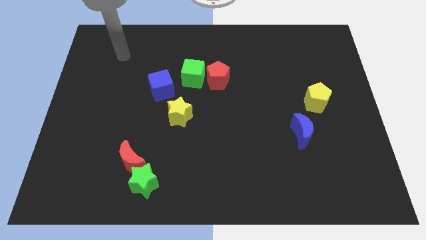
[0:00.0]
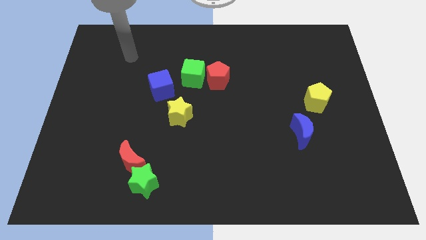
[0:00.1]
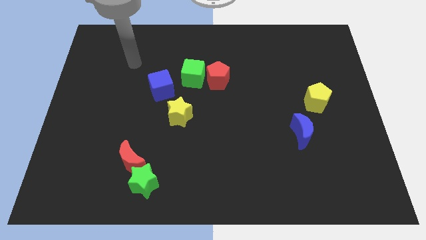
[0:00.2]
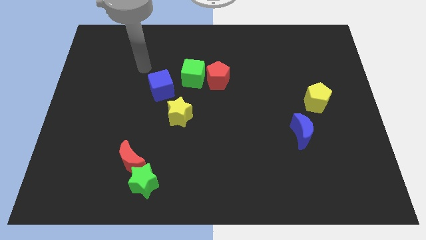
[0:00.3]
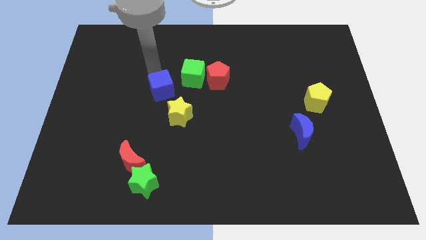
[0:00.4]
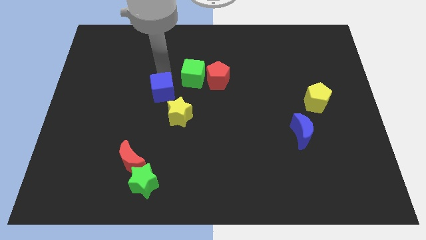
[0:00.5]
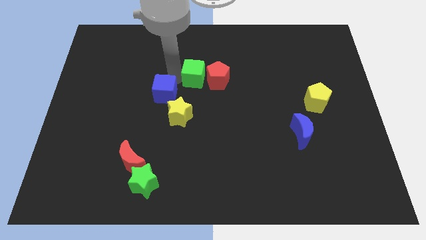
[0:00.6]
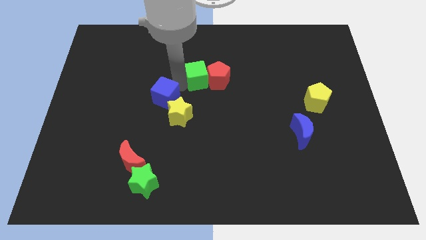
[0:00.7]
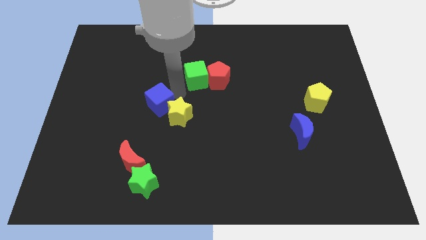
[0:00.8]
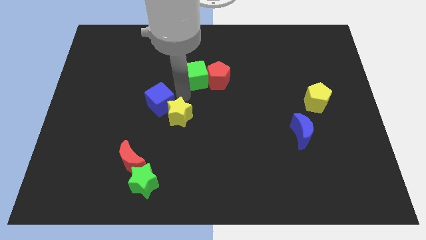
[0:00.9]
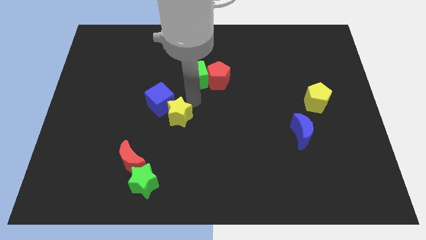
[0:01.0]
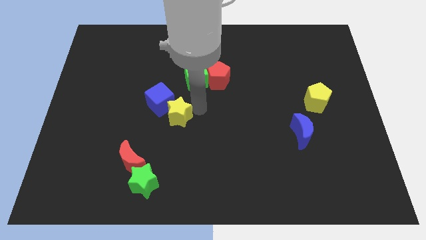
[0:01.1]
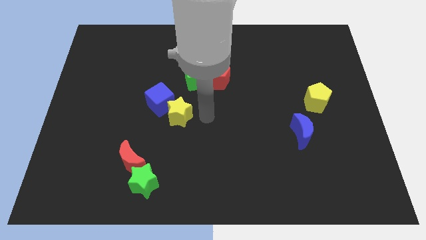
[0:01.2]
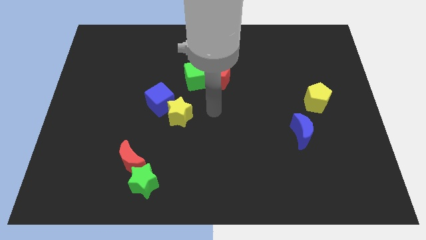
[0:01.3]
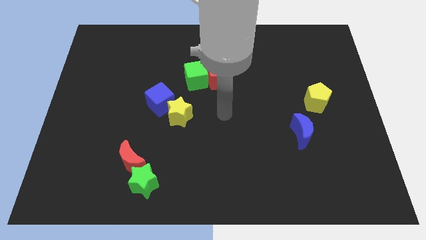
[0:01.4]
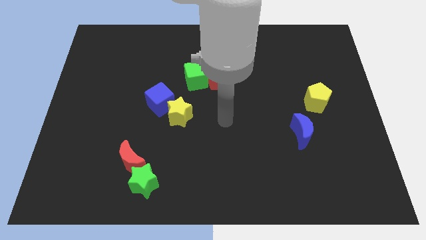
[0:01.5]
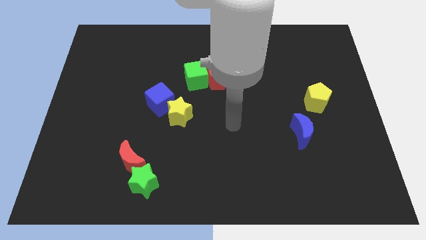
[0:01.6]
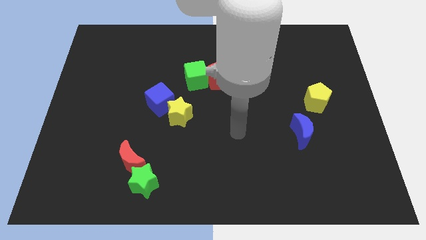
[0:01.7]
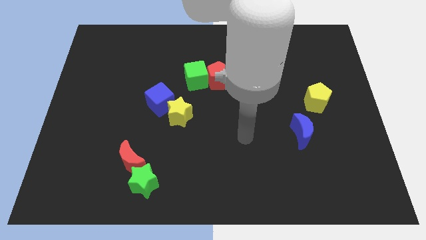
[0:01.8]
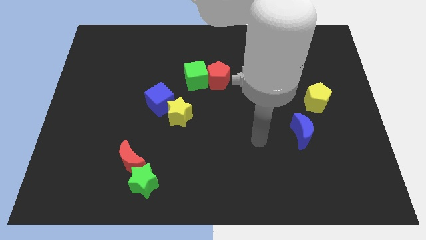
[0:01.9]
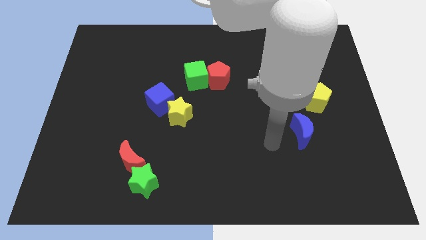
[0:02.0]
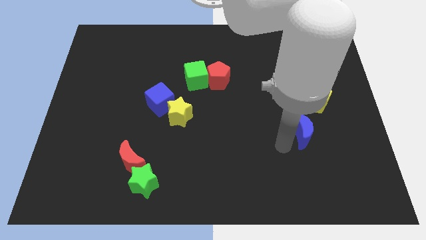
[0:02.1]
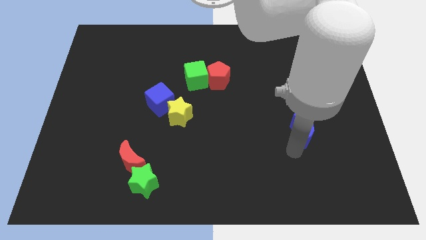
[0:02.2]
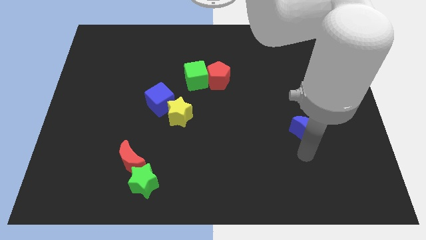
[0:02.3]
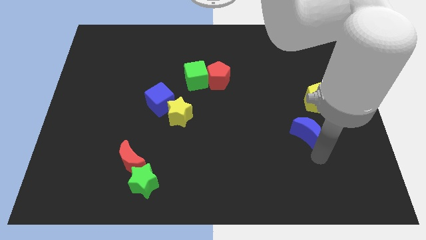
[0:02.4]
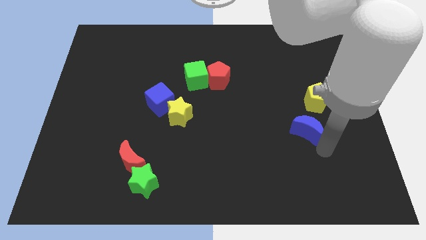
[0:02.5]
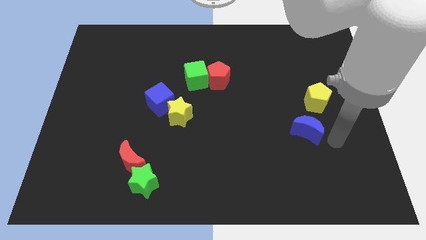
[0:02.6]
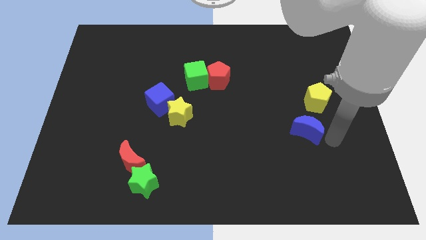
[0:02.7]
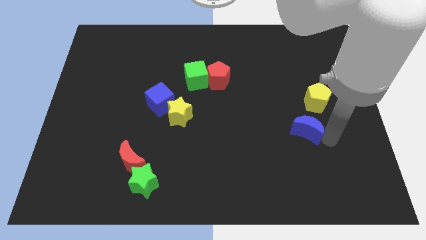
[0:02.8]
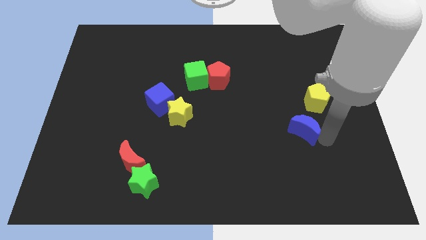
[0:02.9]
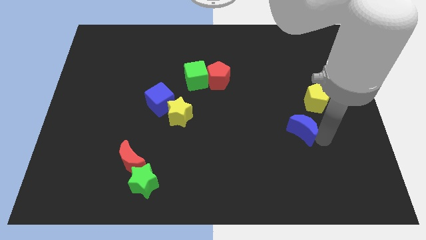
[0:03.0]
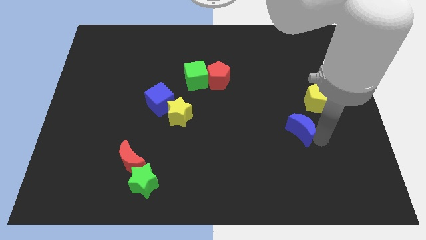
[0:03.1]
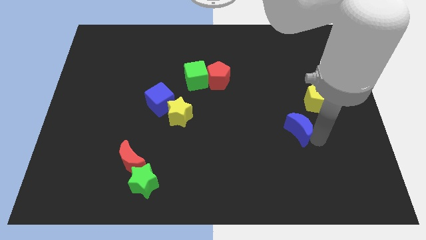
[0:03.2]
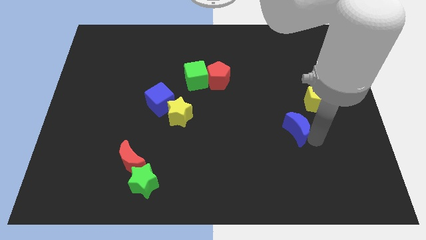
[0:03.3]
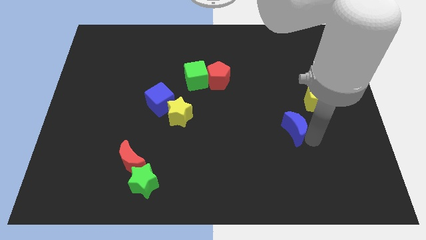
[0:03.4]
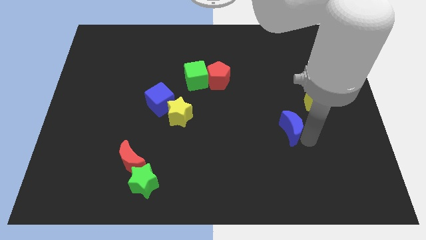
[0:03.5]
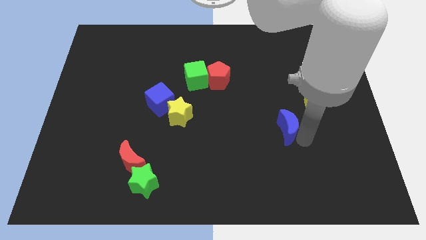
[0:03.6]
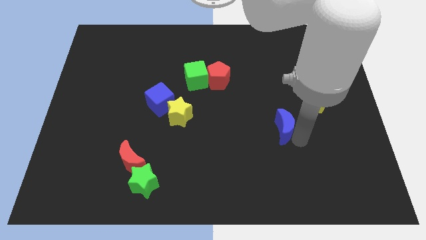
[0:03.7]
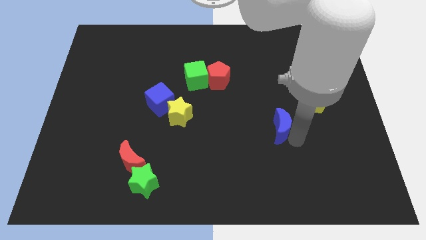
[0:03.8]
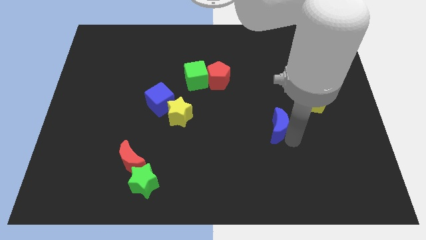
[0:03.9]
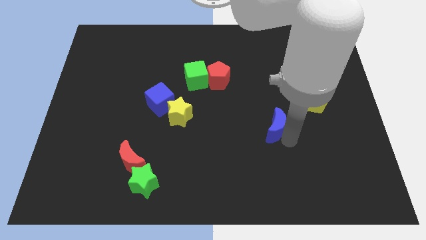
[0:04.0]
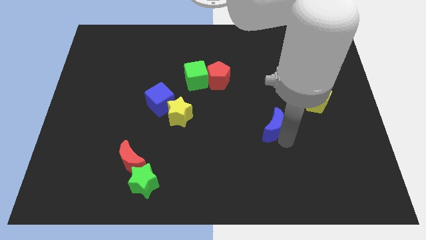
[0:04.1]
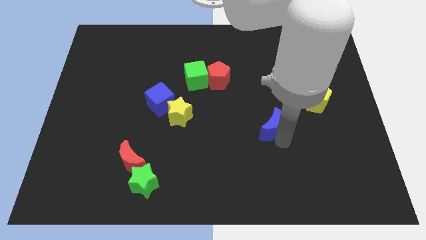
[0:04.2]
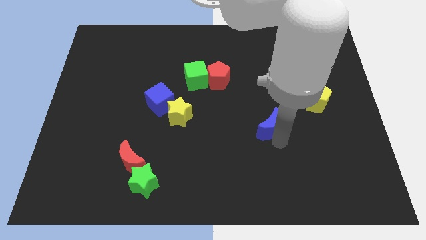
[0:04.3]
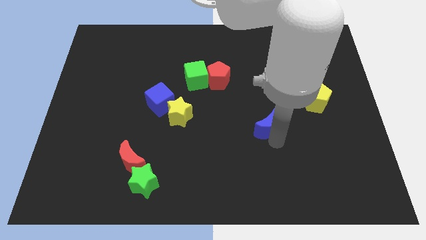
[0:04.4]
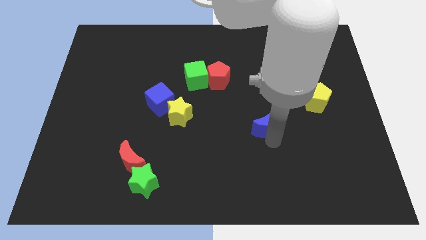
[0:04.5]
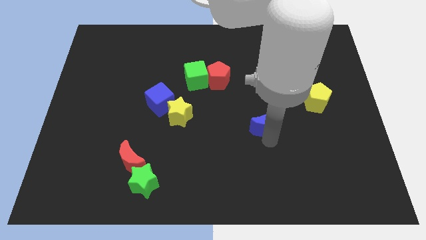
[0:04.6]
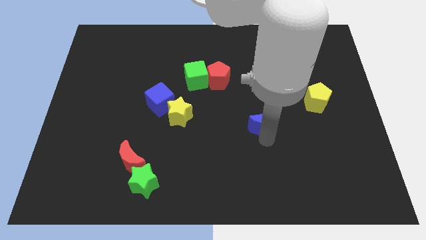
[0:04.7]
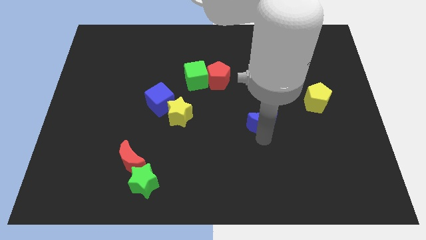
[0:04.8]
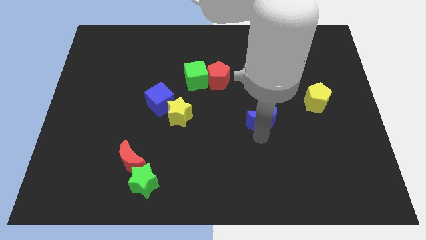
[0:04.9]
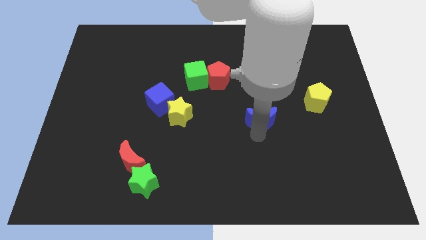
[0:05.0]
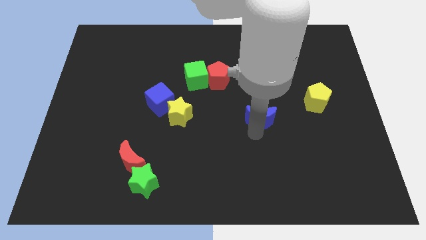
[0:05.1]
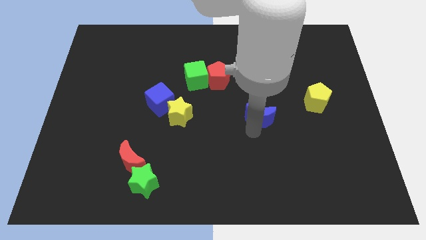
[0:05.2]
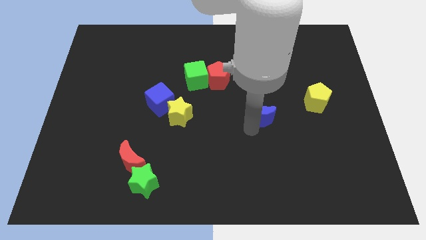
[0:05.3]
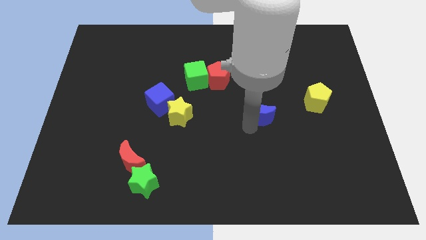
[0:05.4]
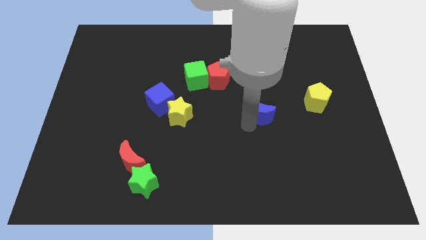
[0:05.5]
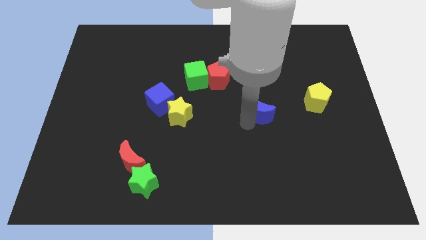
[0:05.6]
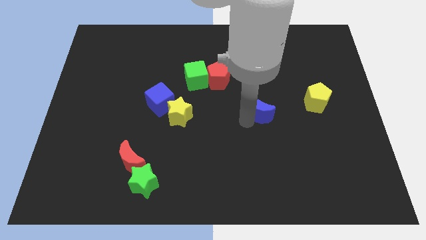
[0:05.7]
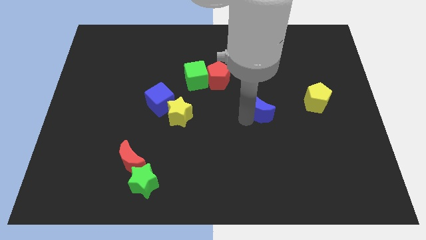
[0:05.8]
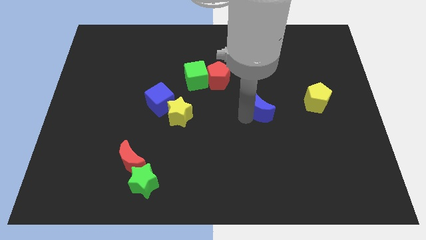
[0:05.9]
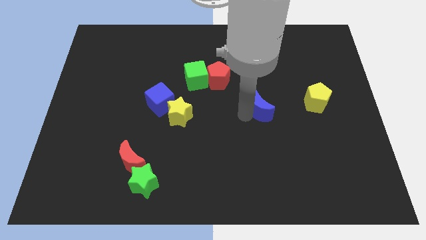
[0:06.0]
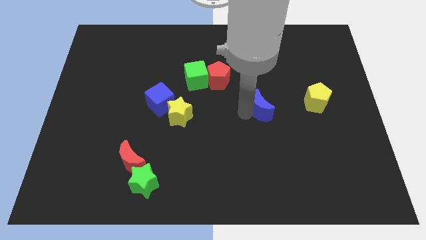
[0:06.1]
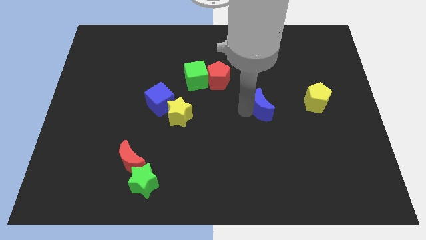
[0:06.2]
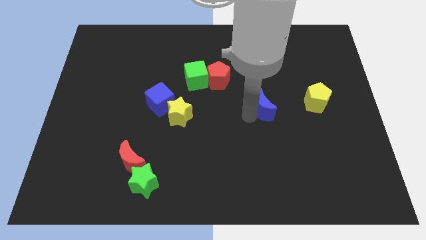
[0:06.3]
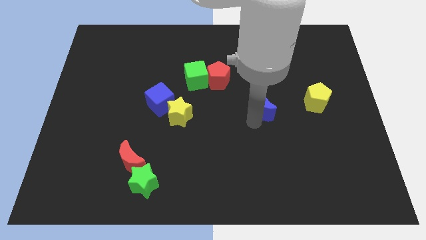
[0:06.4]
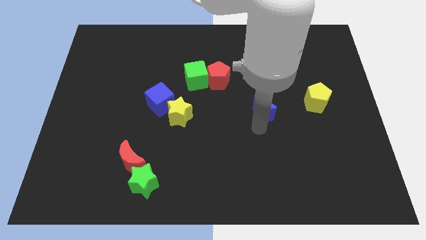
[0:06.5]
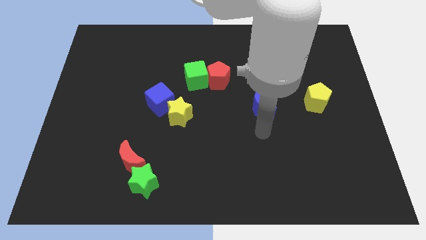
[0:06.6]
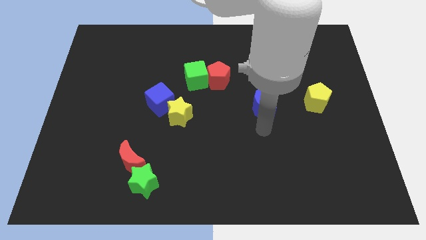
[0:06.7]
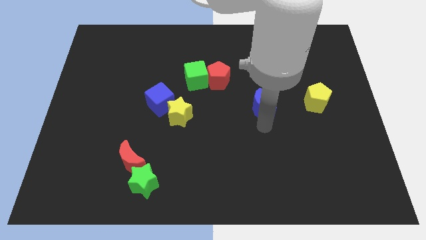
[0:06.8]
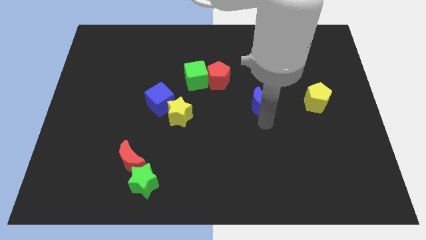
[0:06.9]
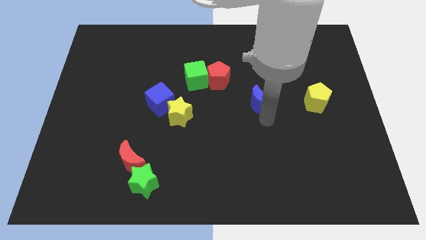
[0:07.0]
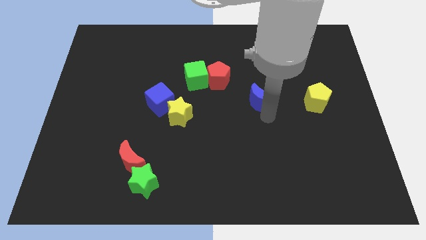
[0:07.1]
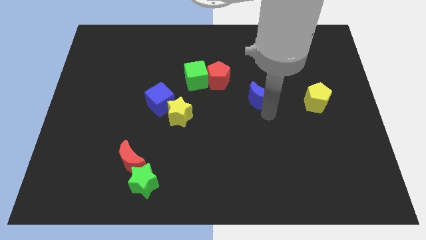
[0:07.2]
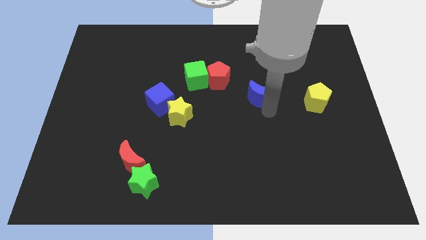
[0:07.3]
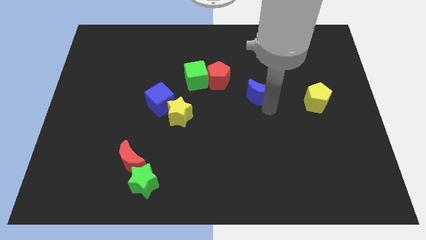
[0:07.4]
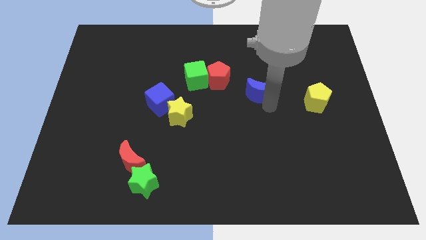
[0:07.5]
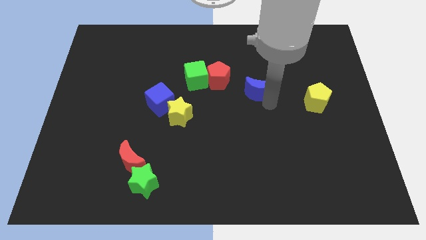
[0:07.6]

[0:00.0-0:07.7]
slide the blue moon to the right side of the red pentagon
